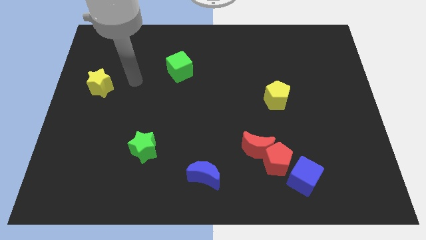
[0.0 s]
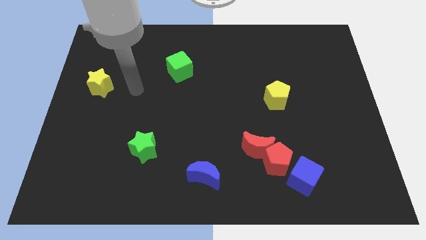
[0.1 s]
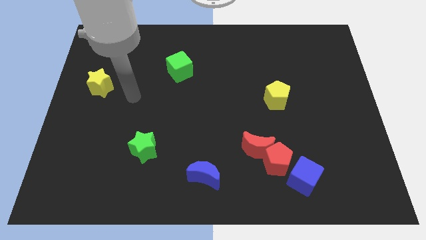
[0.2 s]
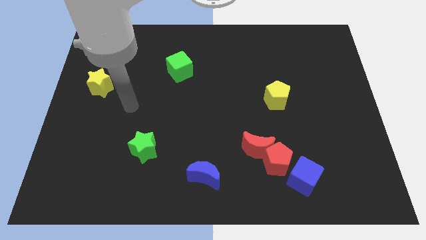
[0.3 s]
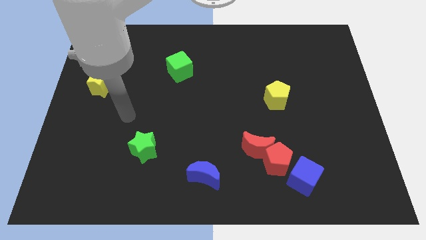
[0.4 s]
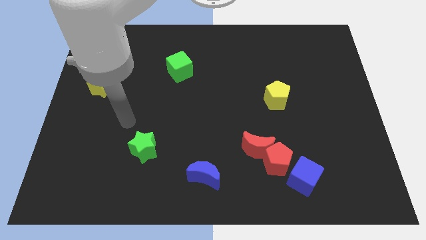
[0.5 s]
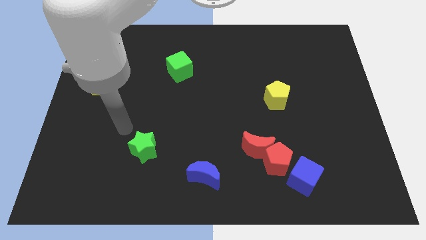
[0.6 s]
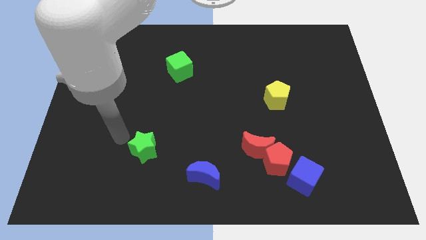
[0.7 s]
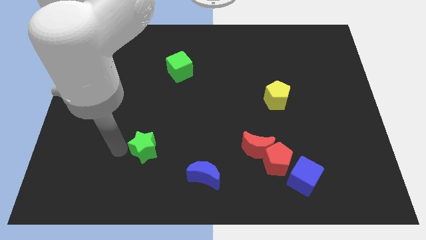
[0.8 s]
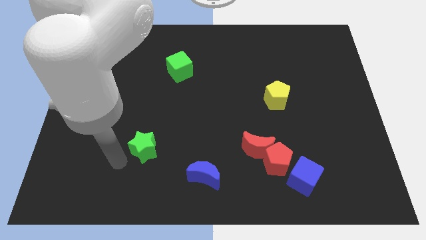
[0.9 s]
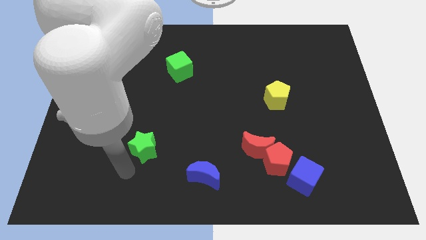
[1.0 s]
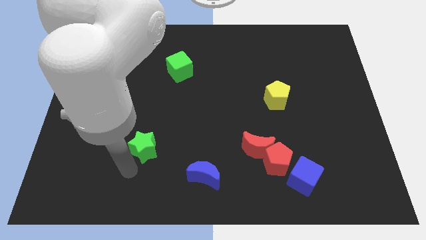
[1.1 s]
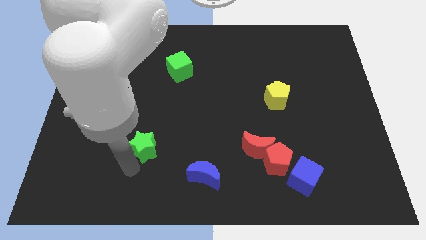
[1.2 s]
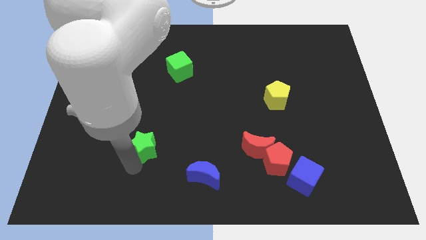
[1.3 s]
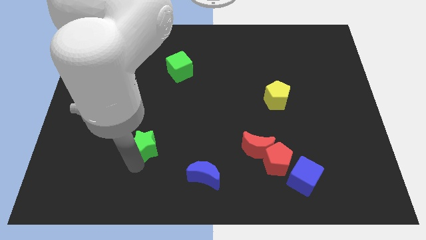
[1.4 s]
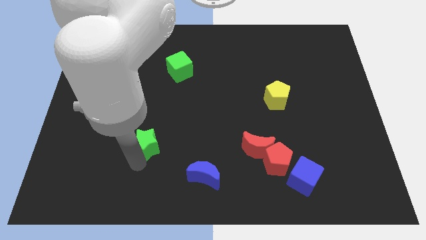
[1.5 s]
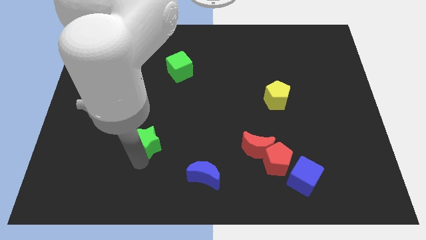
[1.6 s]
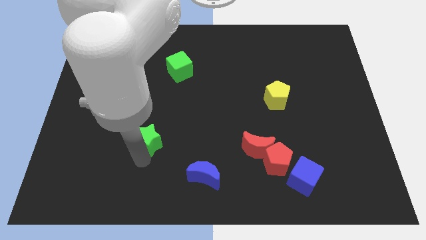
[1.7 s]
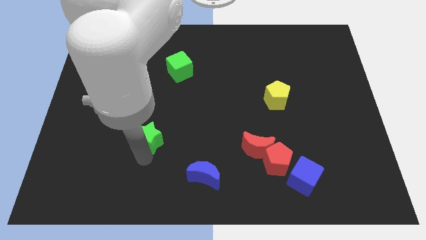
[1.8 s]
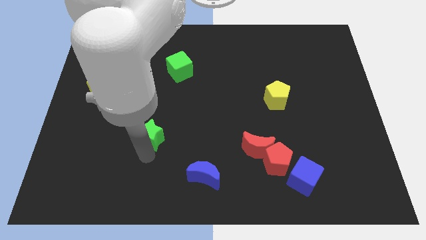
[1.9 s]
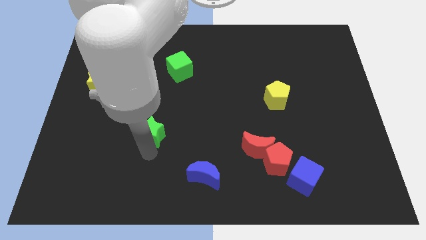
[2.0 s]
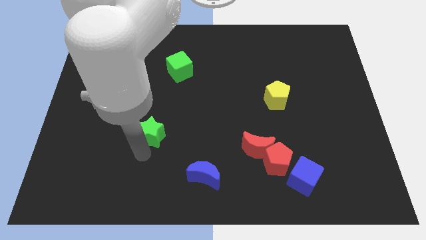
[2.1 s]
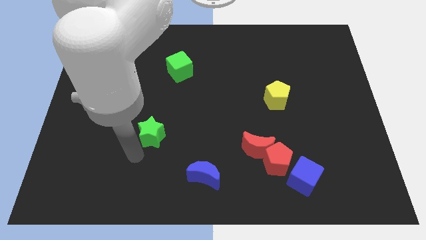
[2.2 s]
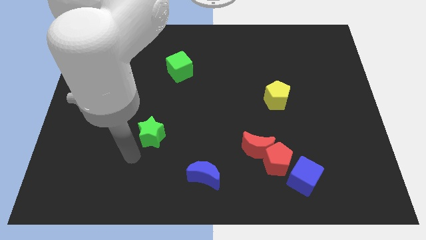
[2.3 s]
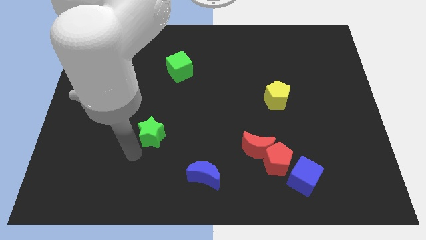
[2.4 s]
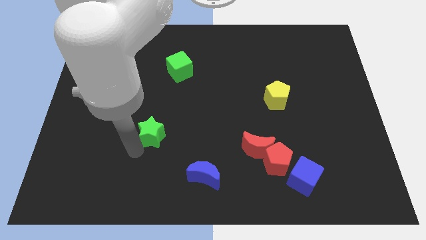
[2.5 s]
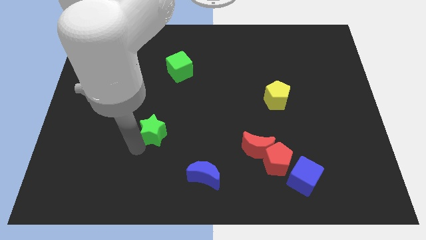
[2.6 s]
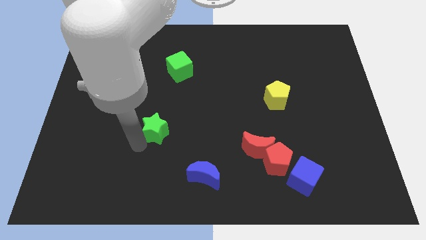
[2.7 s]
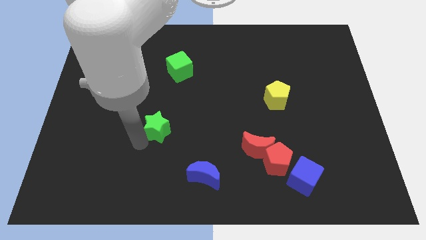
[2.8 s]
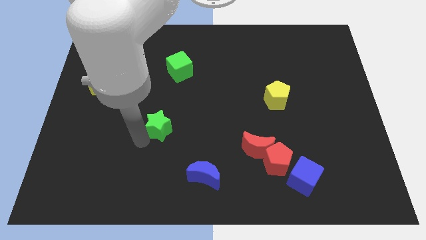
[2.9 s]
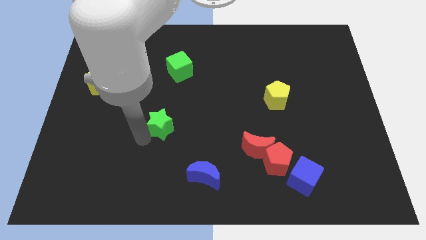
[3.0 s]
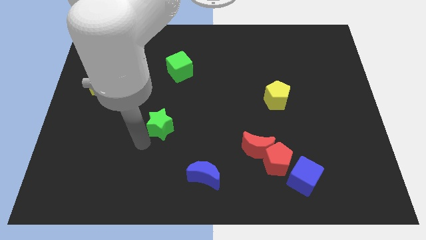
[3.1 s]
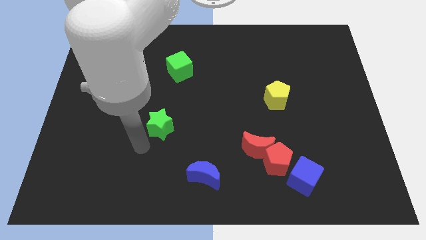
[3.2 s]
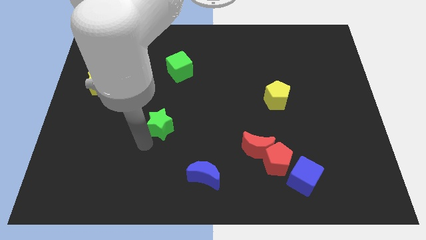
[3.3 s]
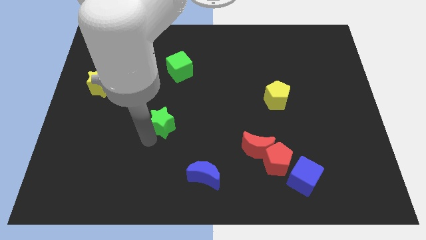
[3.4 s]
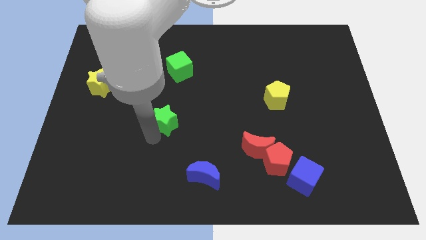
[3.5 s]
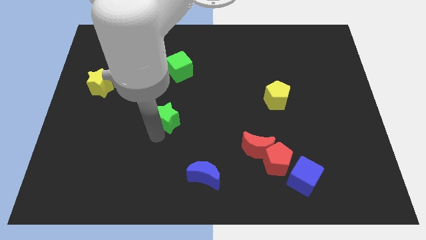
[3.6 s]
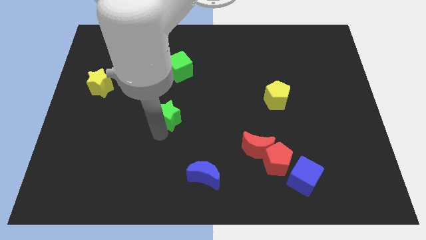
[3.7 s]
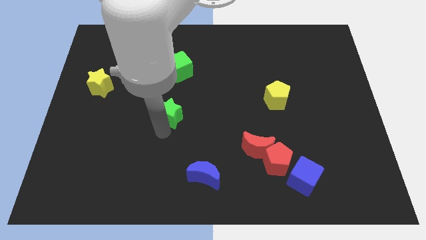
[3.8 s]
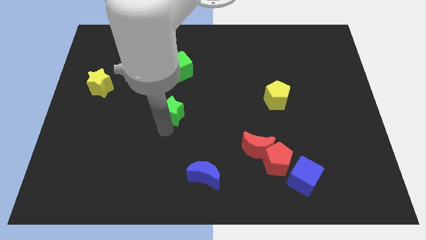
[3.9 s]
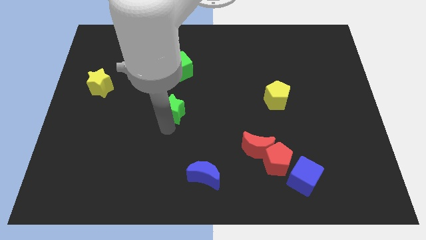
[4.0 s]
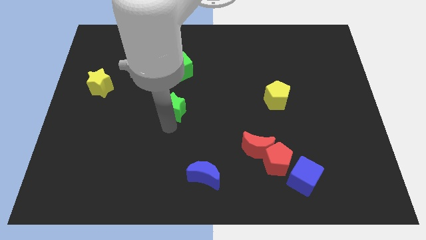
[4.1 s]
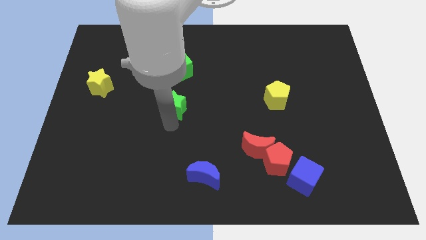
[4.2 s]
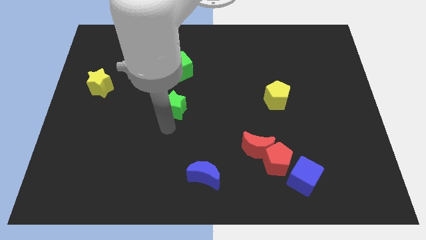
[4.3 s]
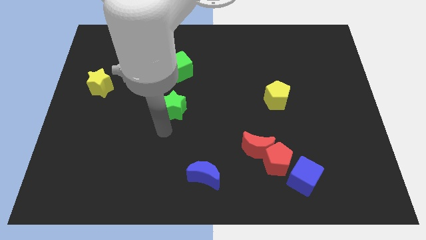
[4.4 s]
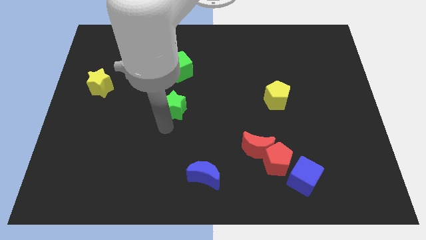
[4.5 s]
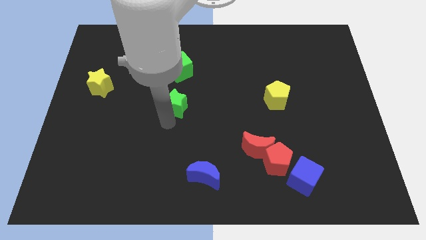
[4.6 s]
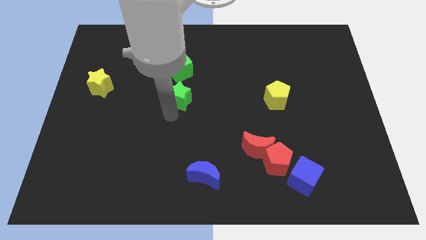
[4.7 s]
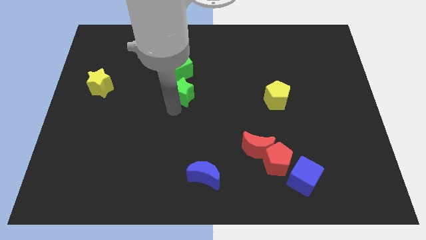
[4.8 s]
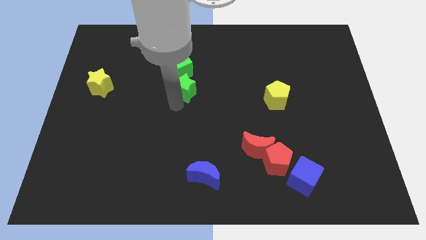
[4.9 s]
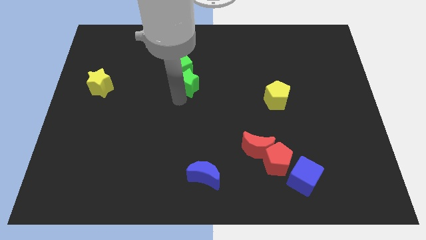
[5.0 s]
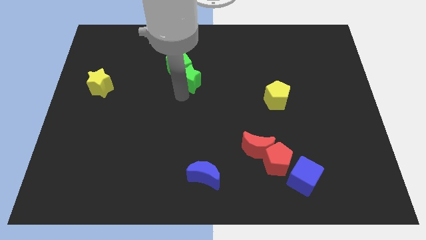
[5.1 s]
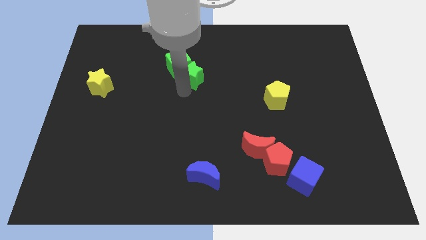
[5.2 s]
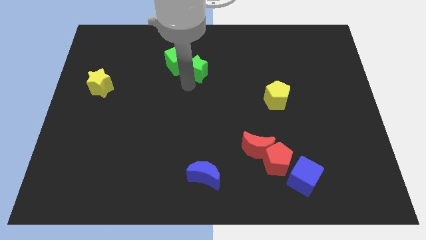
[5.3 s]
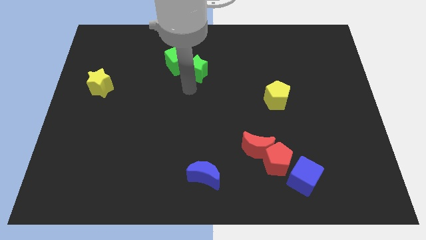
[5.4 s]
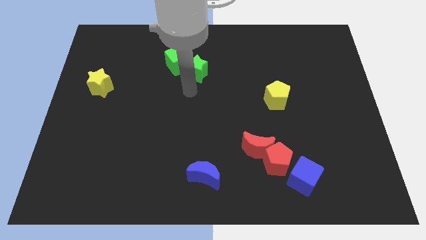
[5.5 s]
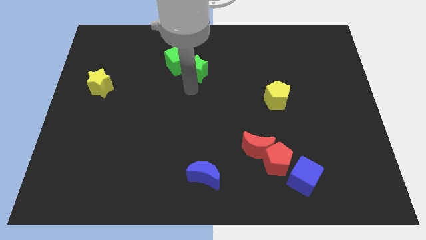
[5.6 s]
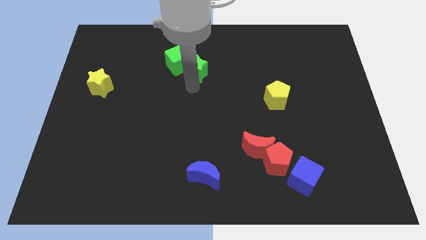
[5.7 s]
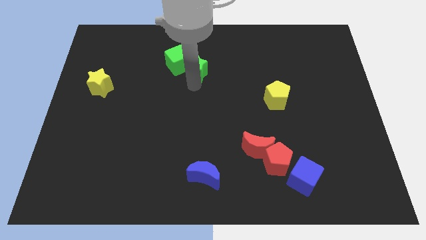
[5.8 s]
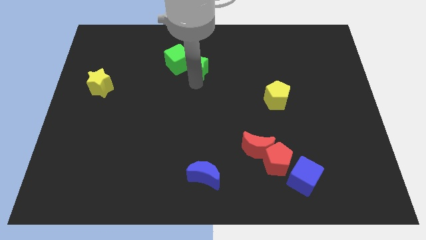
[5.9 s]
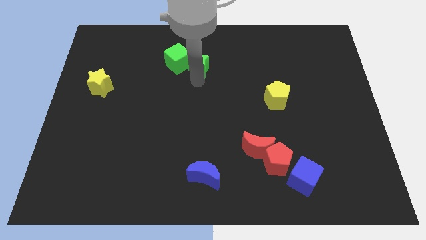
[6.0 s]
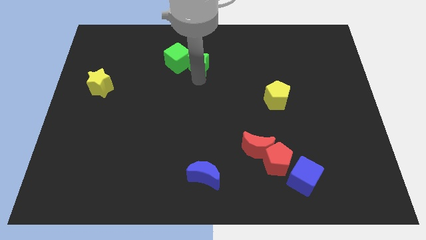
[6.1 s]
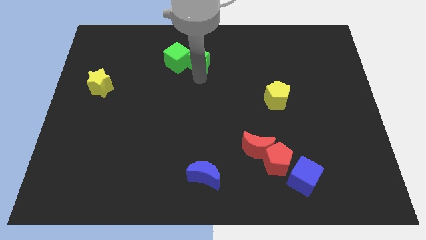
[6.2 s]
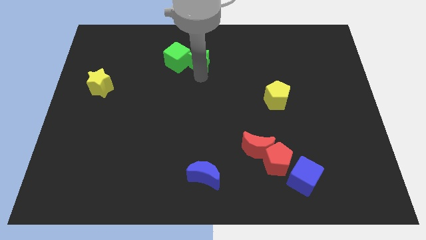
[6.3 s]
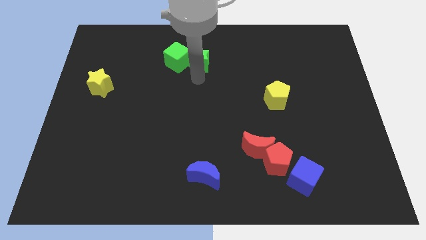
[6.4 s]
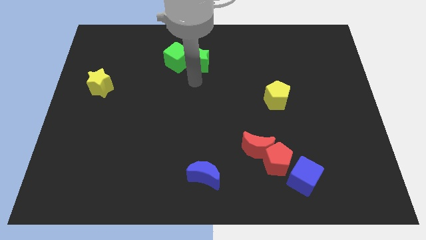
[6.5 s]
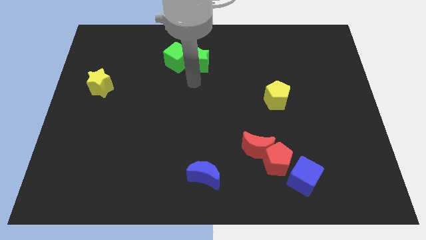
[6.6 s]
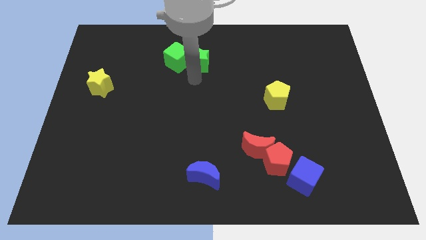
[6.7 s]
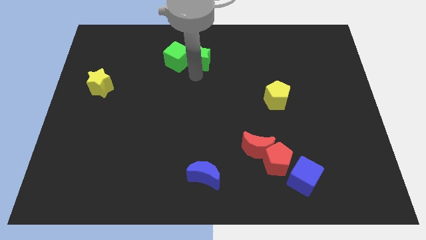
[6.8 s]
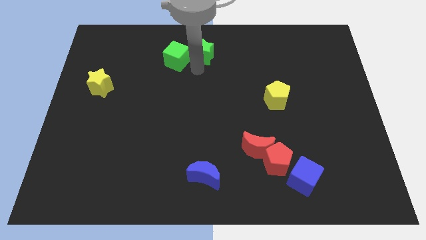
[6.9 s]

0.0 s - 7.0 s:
put the green star to the top side

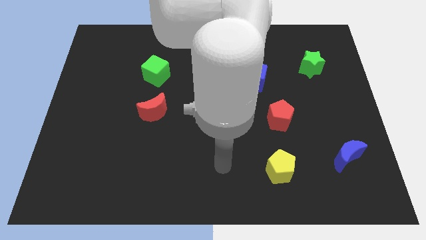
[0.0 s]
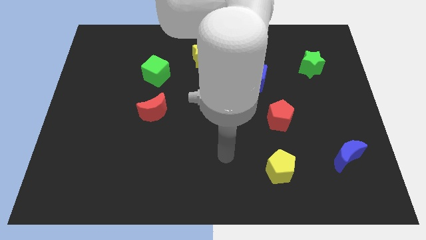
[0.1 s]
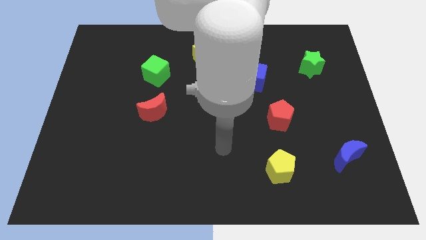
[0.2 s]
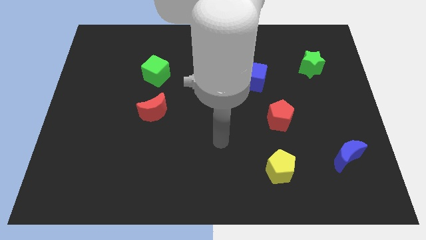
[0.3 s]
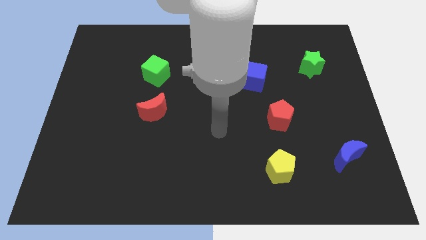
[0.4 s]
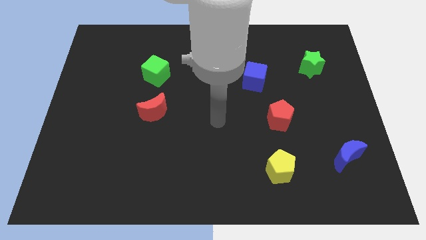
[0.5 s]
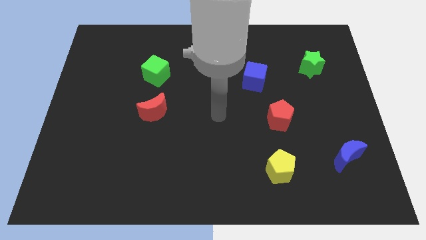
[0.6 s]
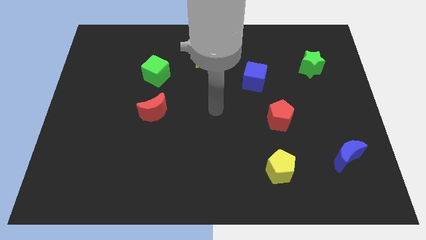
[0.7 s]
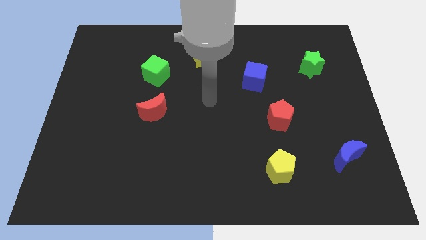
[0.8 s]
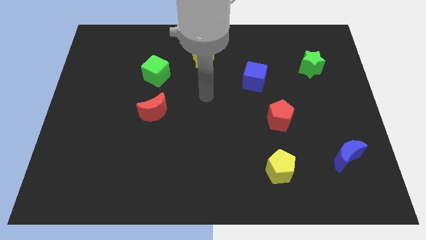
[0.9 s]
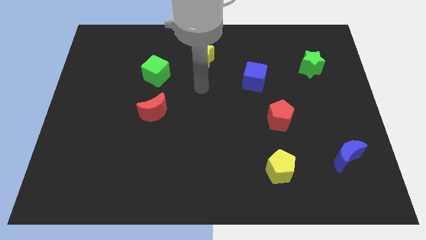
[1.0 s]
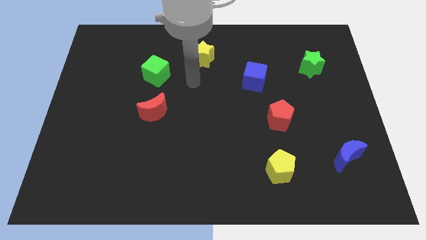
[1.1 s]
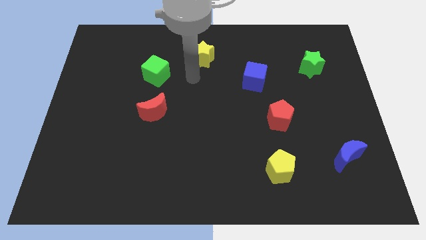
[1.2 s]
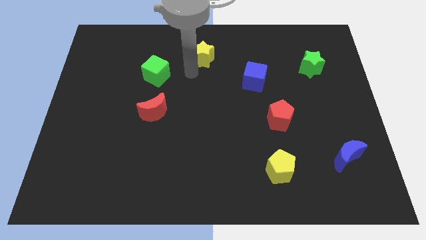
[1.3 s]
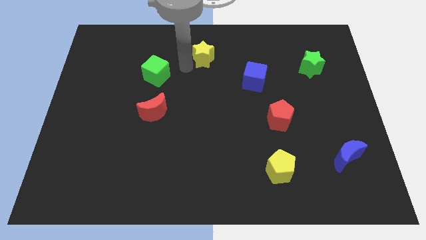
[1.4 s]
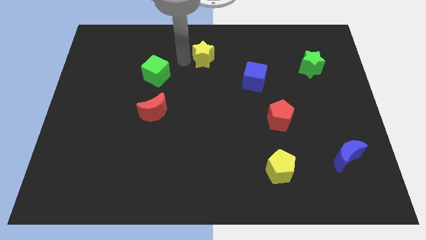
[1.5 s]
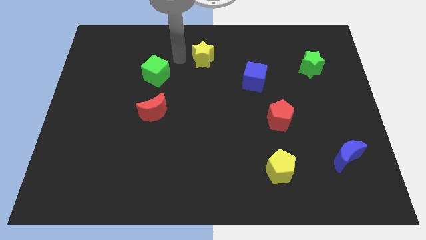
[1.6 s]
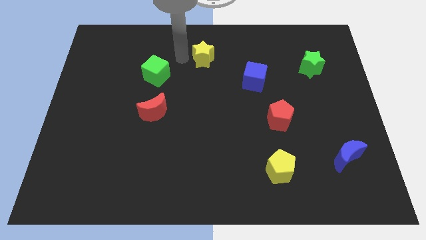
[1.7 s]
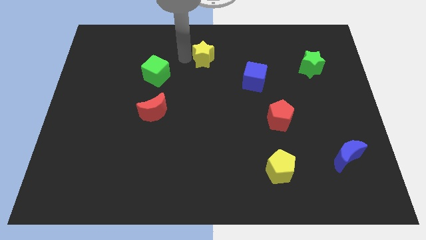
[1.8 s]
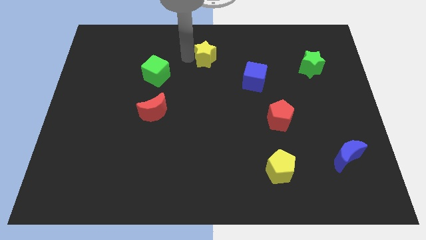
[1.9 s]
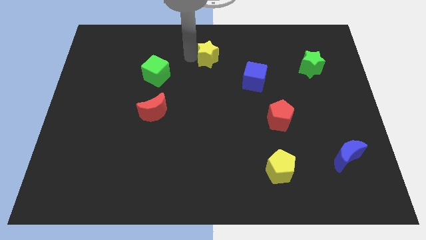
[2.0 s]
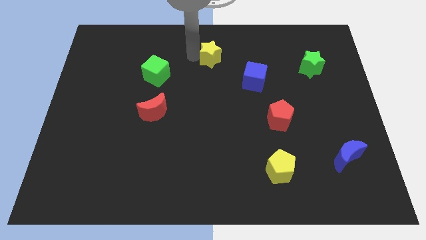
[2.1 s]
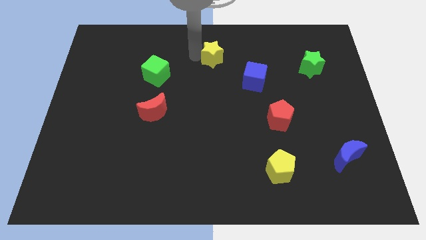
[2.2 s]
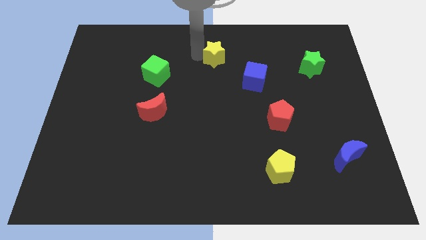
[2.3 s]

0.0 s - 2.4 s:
slide the yellow star to the top
